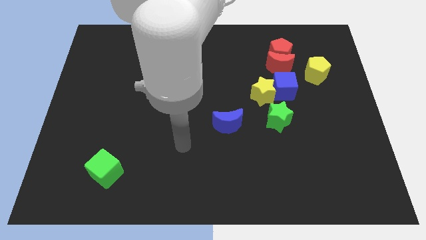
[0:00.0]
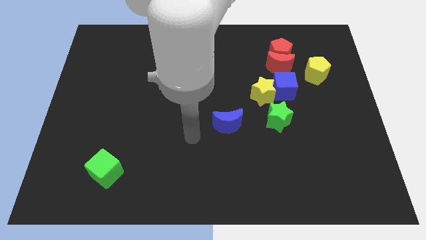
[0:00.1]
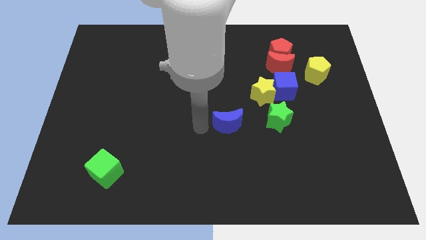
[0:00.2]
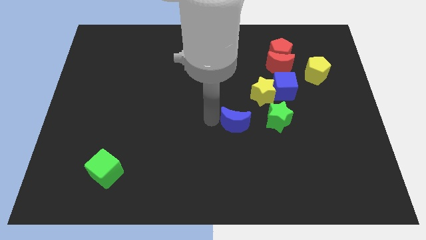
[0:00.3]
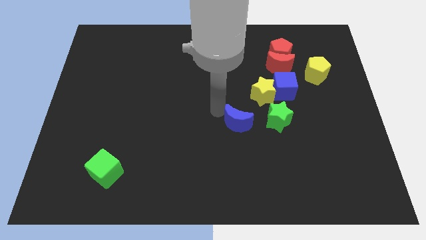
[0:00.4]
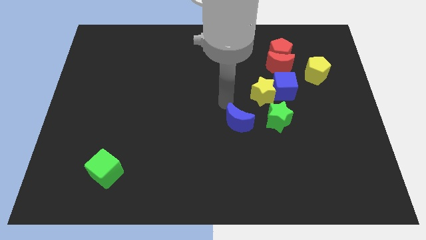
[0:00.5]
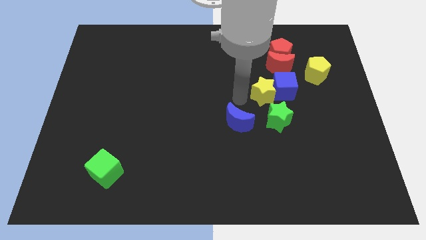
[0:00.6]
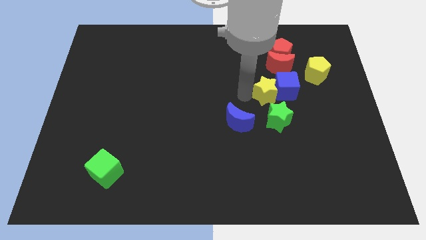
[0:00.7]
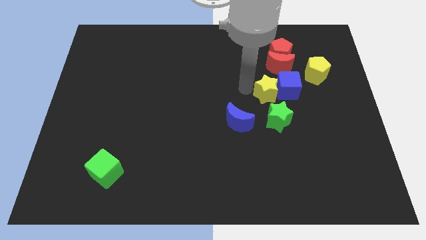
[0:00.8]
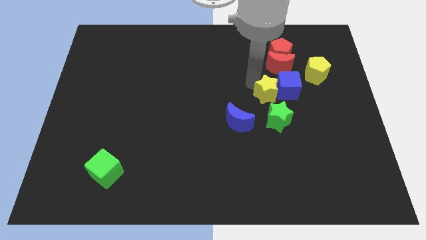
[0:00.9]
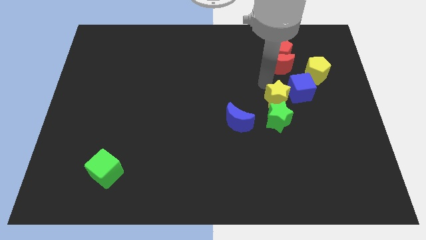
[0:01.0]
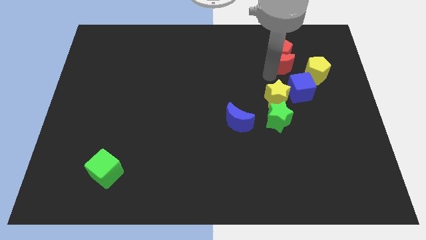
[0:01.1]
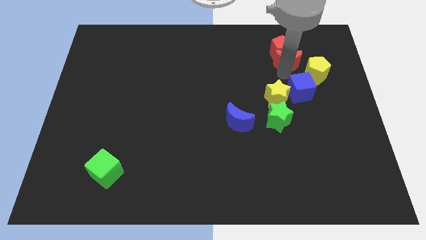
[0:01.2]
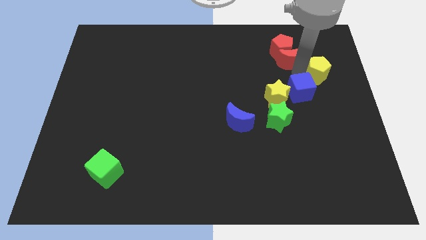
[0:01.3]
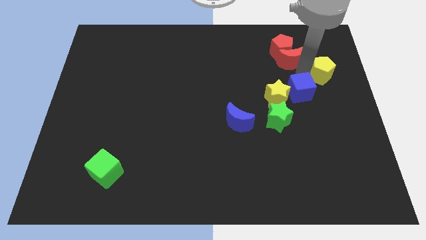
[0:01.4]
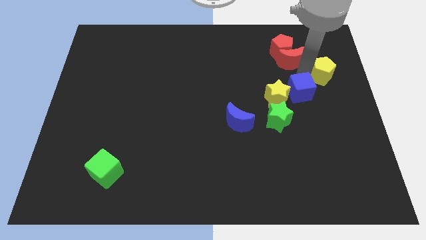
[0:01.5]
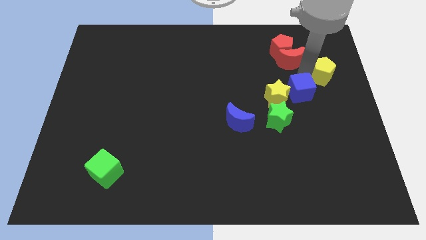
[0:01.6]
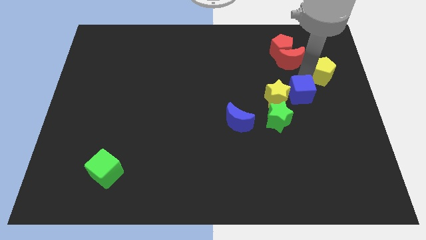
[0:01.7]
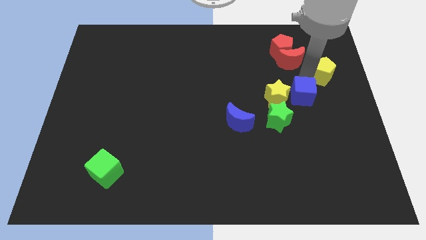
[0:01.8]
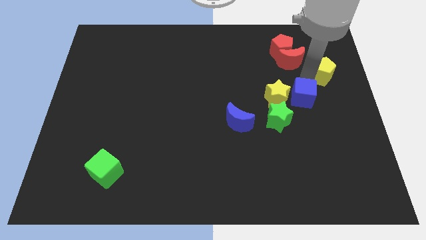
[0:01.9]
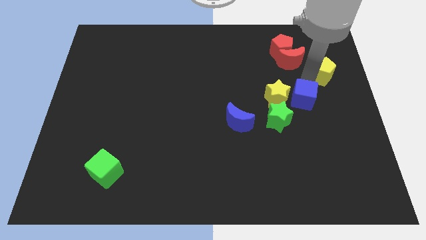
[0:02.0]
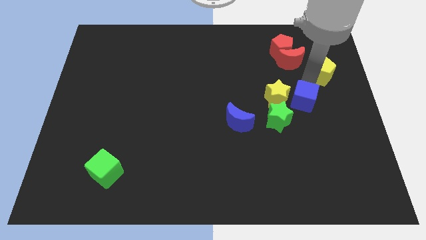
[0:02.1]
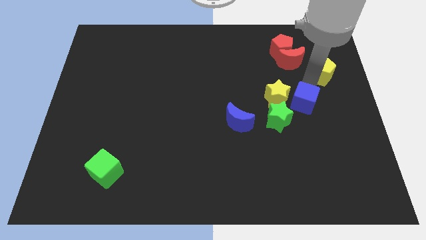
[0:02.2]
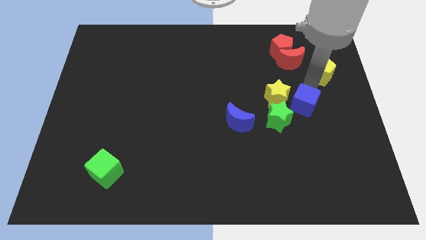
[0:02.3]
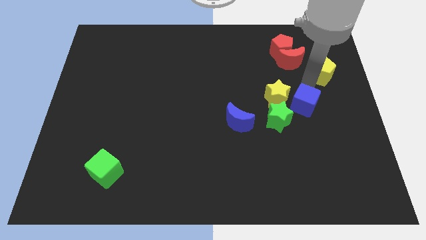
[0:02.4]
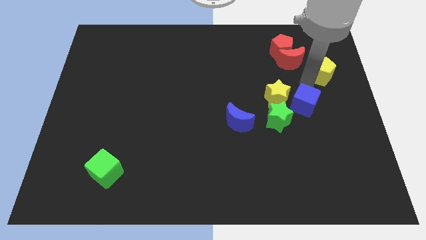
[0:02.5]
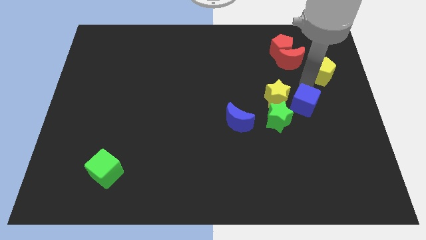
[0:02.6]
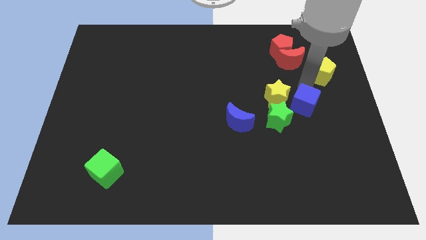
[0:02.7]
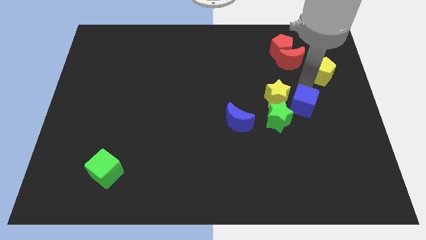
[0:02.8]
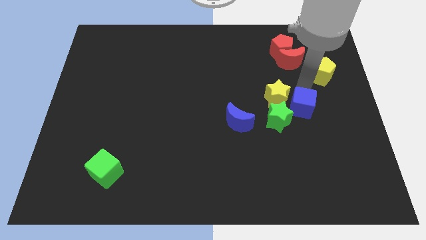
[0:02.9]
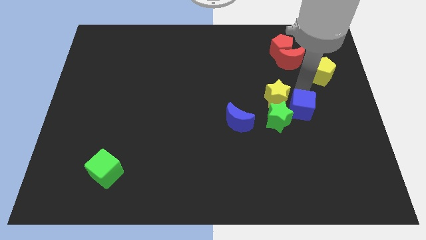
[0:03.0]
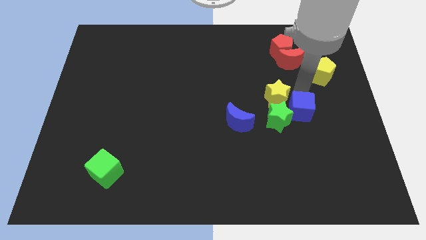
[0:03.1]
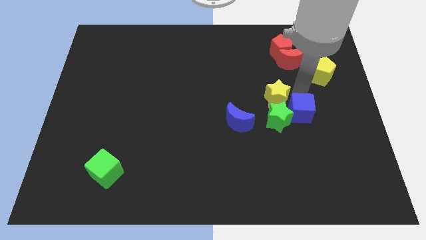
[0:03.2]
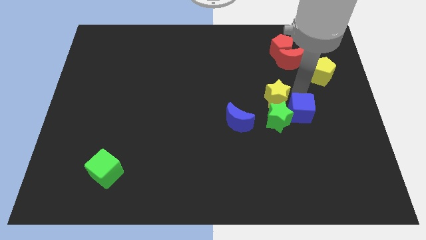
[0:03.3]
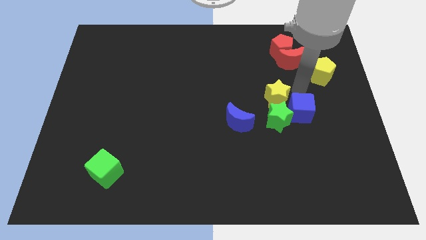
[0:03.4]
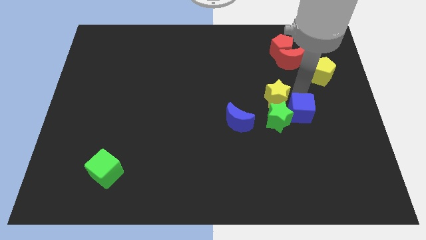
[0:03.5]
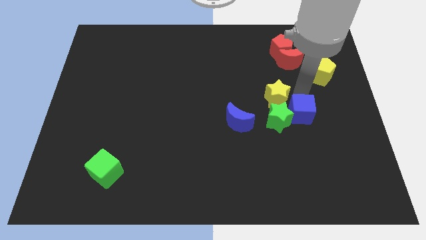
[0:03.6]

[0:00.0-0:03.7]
push the blue cube slightly down

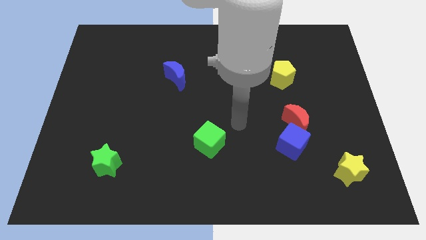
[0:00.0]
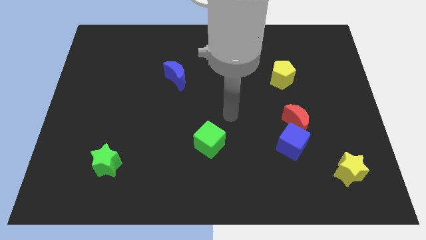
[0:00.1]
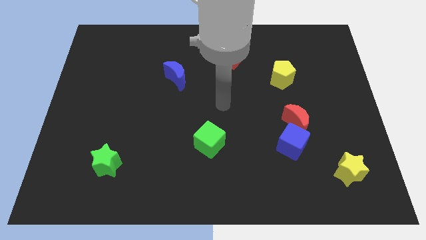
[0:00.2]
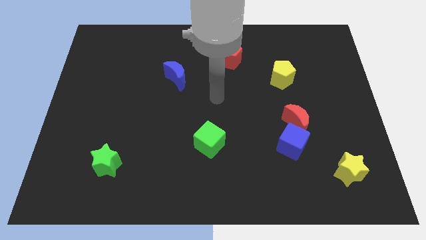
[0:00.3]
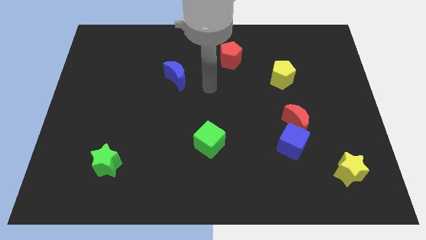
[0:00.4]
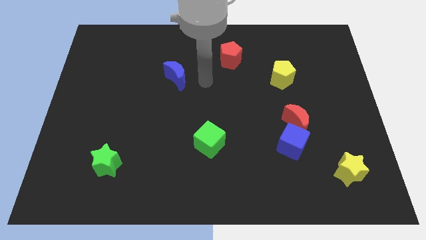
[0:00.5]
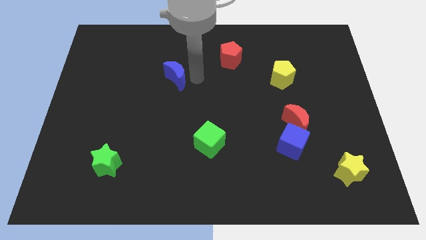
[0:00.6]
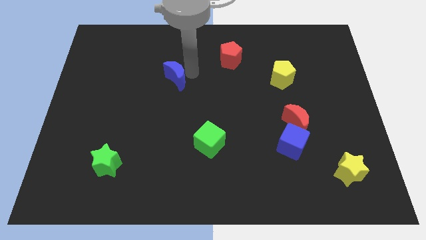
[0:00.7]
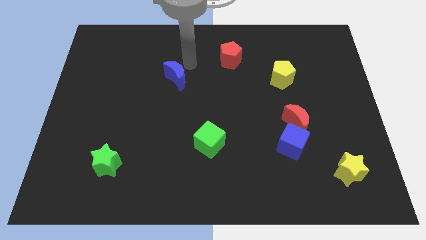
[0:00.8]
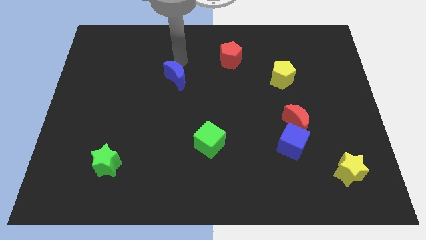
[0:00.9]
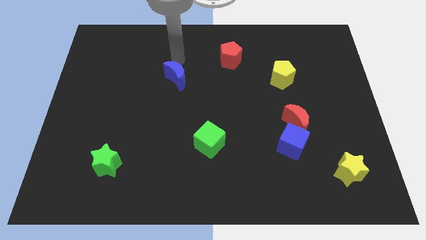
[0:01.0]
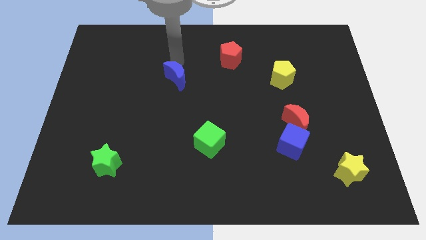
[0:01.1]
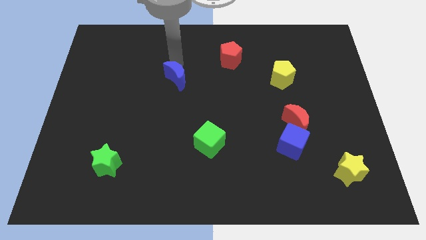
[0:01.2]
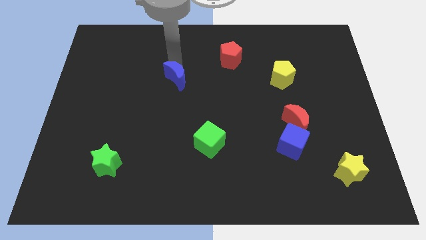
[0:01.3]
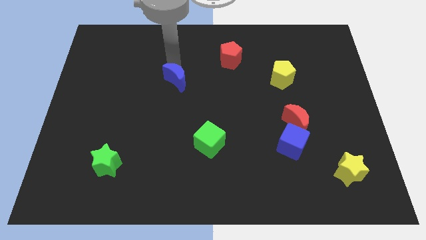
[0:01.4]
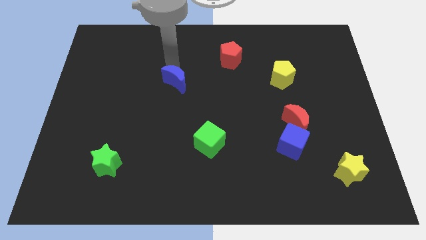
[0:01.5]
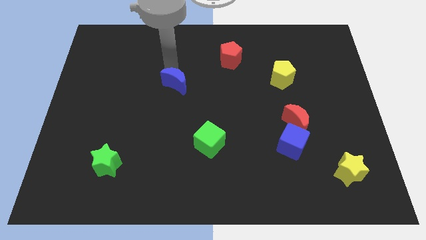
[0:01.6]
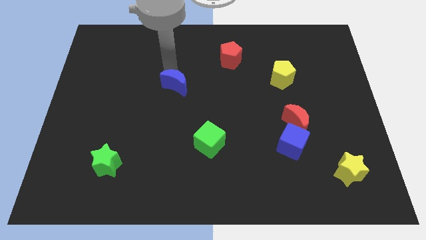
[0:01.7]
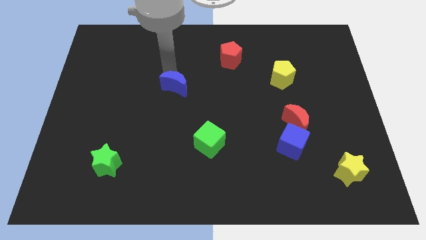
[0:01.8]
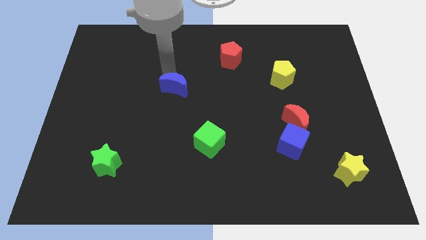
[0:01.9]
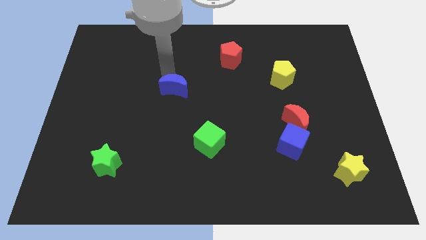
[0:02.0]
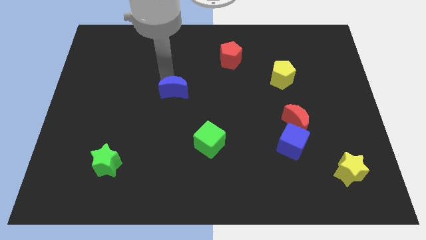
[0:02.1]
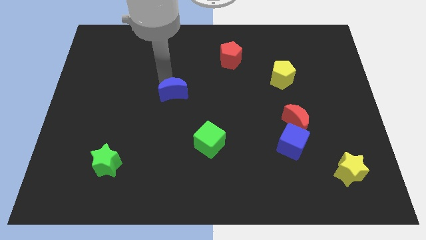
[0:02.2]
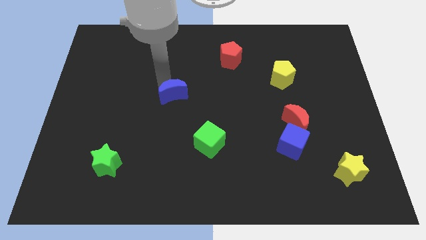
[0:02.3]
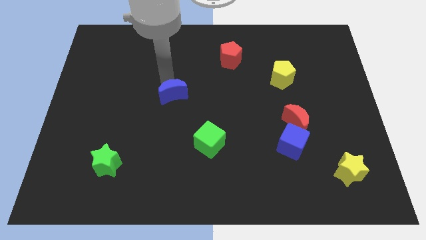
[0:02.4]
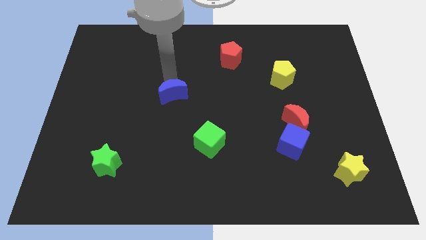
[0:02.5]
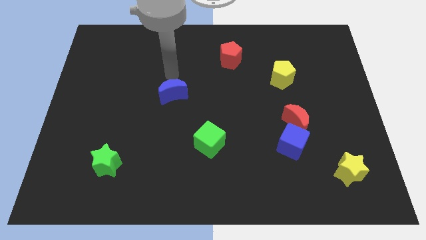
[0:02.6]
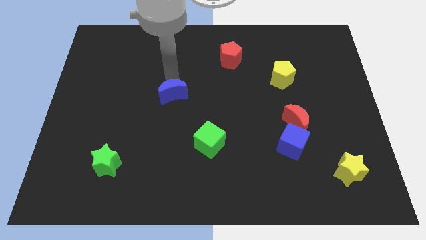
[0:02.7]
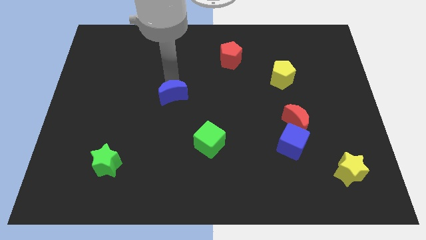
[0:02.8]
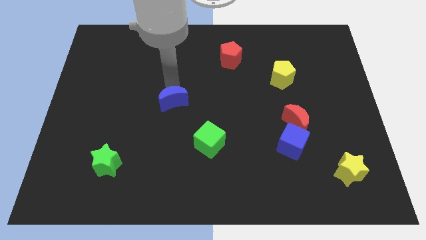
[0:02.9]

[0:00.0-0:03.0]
move the blue moon a bit down

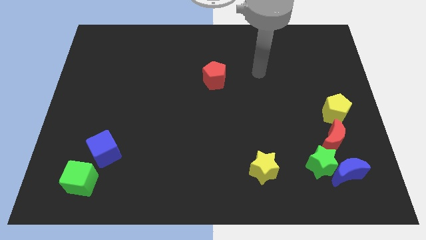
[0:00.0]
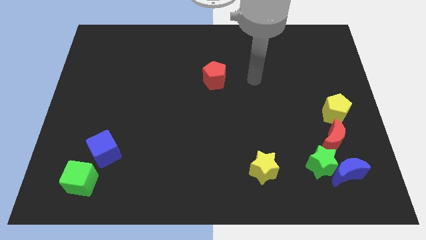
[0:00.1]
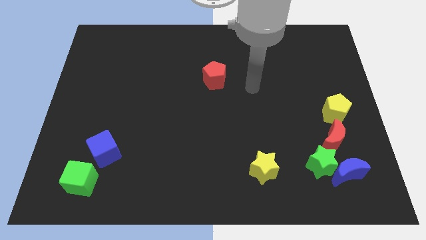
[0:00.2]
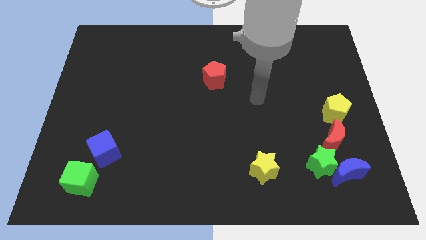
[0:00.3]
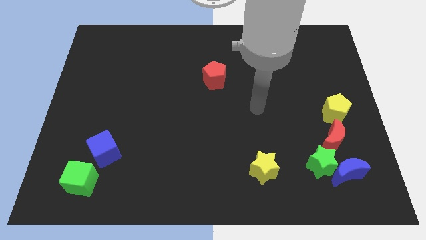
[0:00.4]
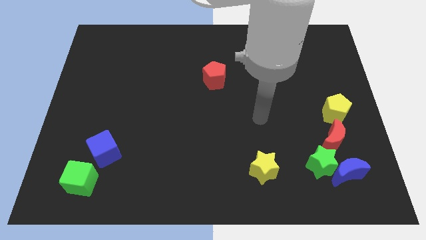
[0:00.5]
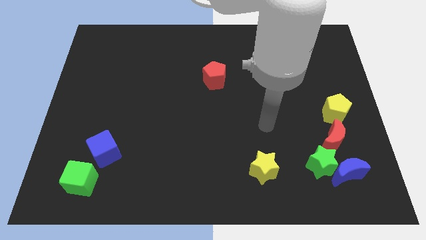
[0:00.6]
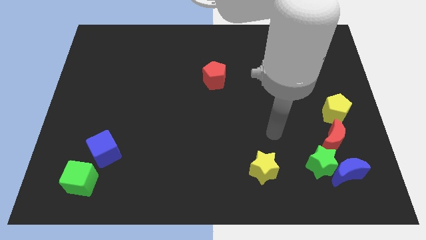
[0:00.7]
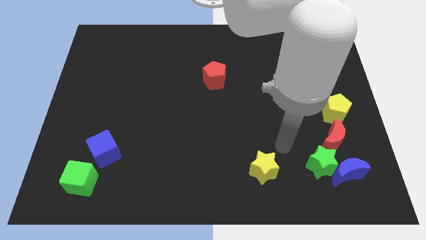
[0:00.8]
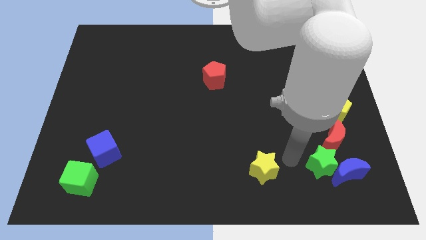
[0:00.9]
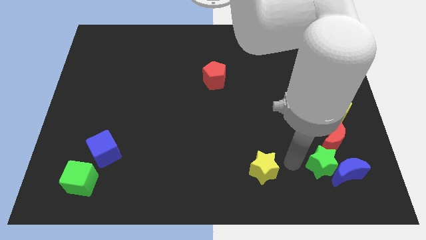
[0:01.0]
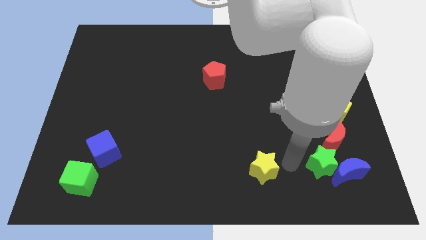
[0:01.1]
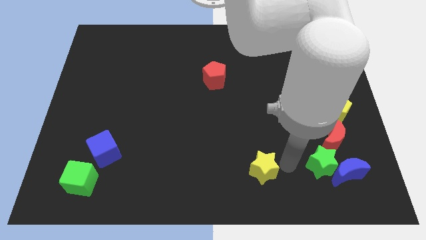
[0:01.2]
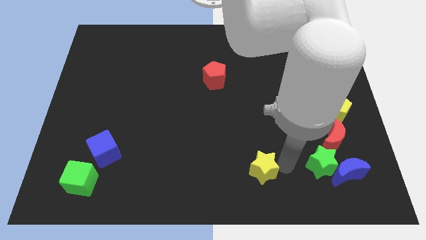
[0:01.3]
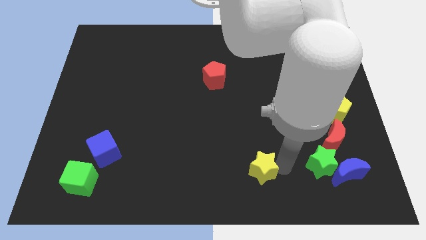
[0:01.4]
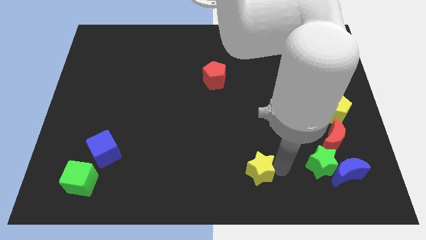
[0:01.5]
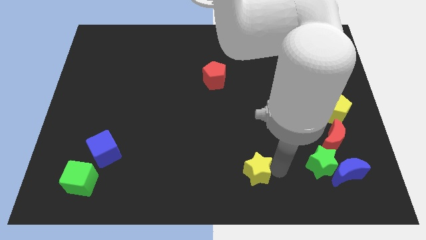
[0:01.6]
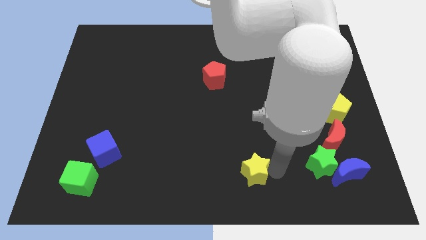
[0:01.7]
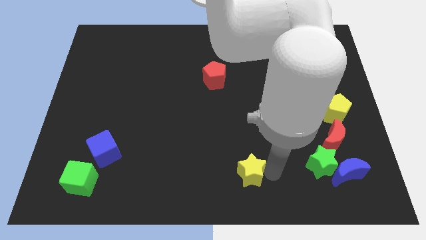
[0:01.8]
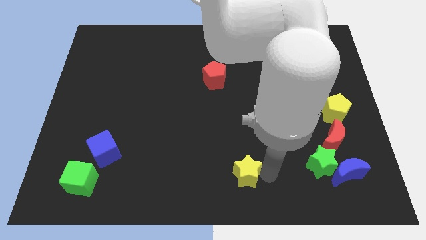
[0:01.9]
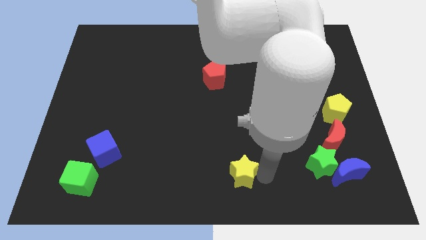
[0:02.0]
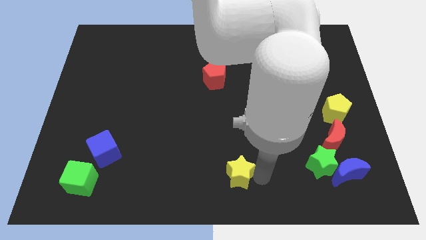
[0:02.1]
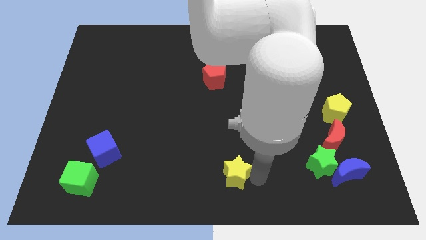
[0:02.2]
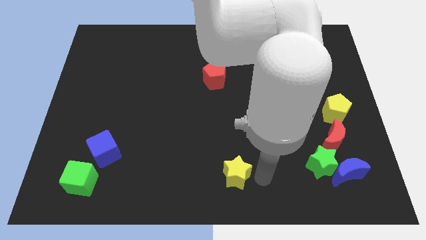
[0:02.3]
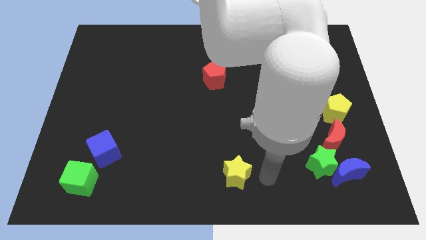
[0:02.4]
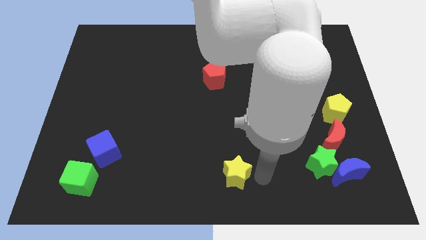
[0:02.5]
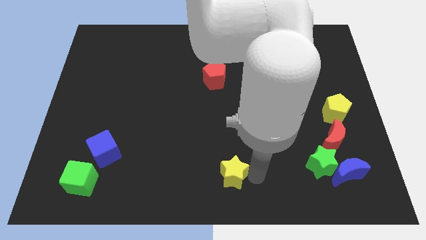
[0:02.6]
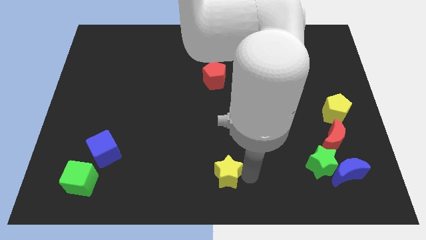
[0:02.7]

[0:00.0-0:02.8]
slightly push the yellow star to the left
